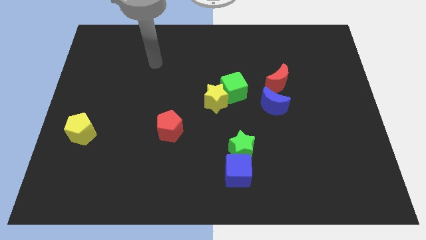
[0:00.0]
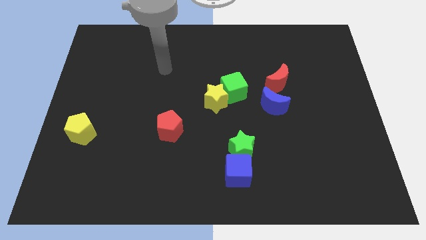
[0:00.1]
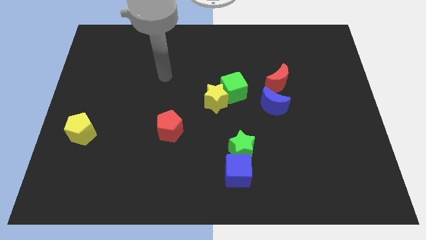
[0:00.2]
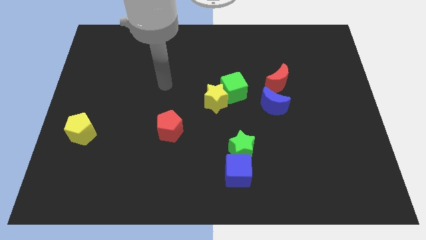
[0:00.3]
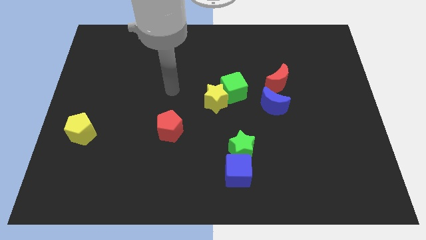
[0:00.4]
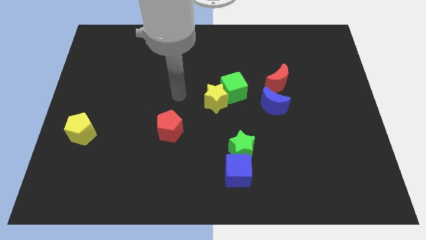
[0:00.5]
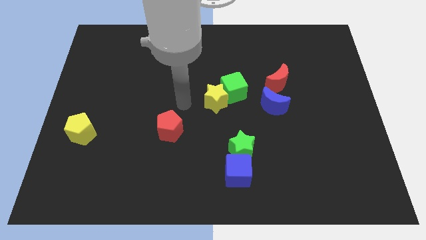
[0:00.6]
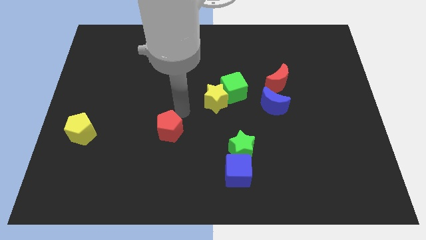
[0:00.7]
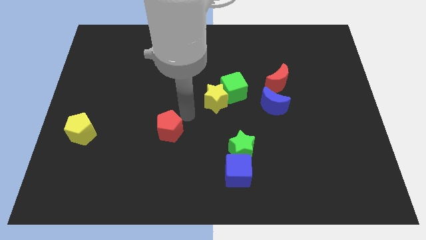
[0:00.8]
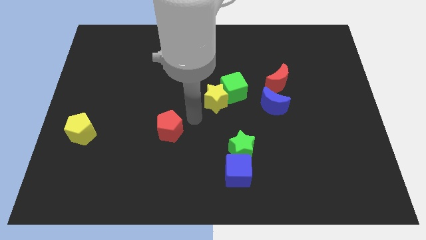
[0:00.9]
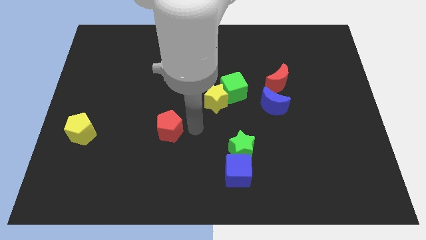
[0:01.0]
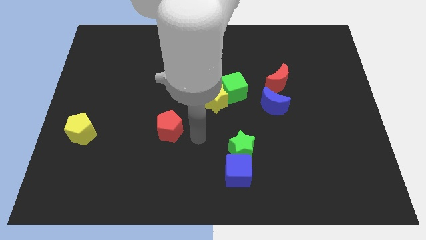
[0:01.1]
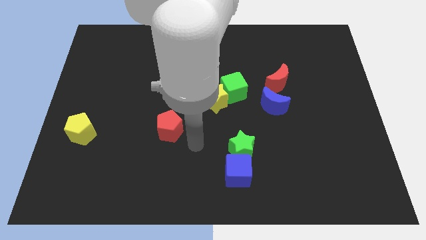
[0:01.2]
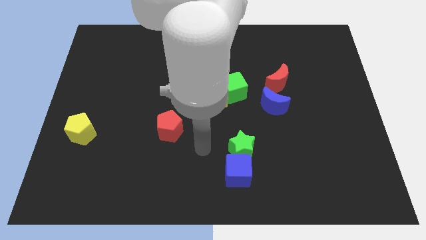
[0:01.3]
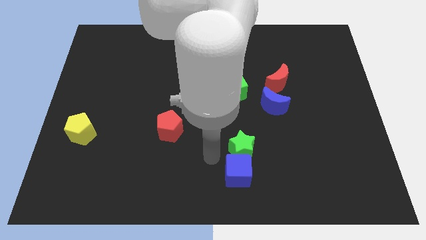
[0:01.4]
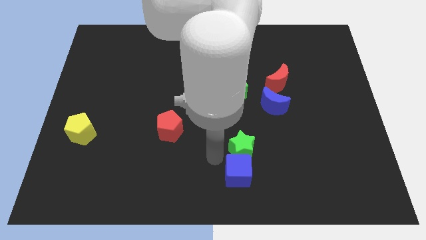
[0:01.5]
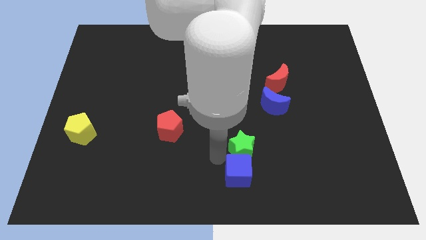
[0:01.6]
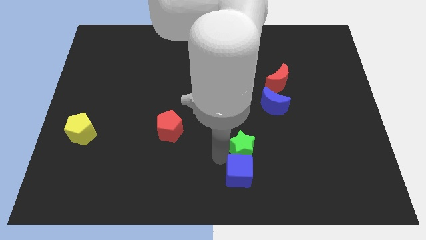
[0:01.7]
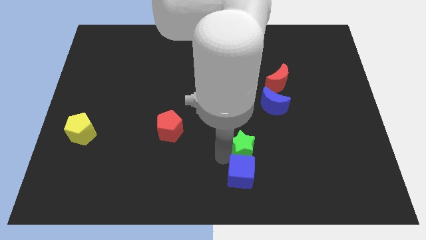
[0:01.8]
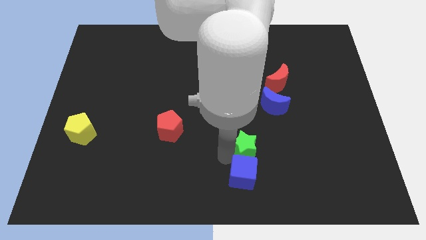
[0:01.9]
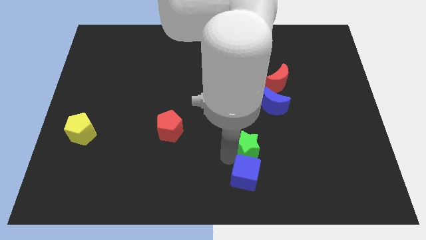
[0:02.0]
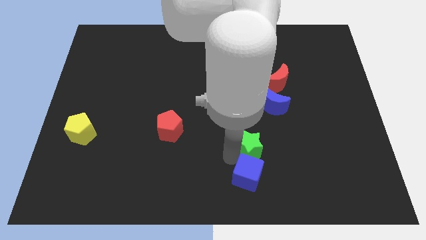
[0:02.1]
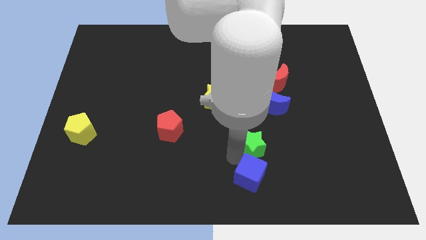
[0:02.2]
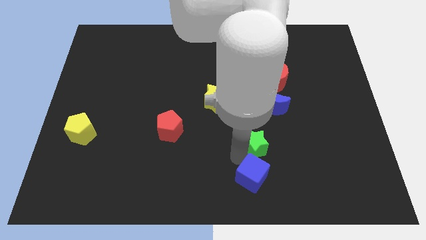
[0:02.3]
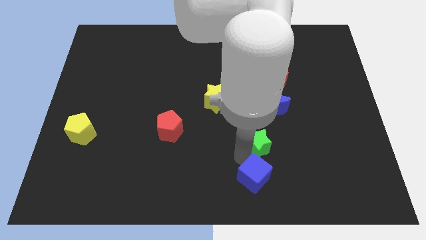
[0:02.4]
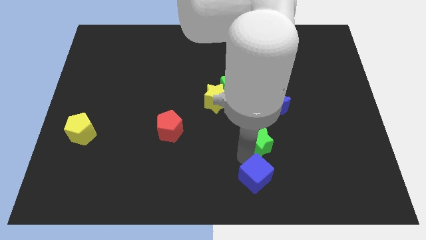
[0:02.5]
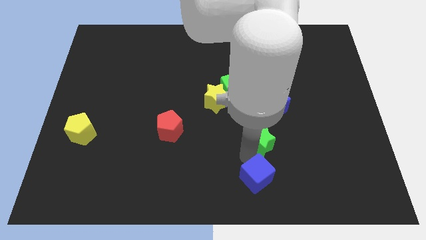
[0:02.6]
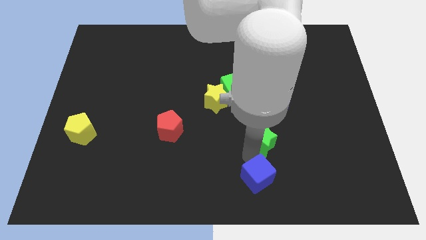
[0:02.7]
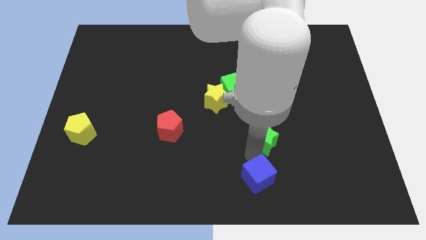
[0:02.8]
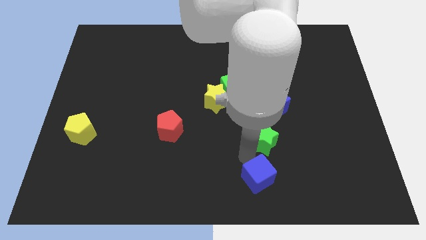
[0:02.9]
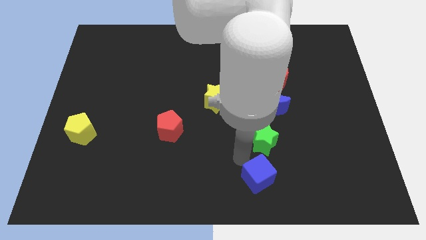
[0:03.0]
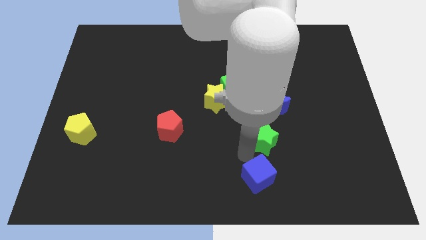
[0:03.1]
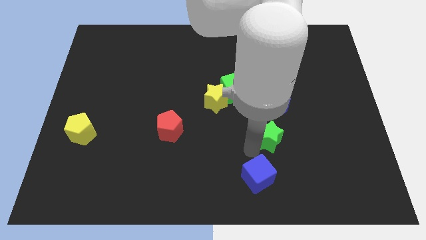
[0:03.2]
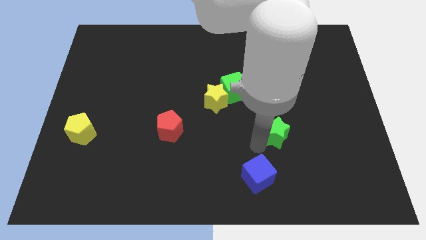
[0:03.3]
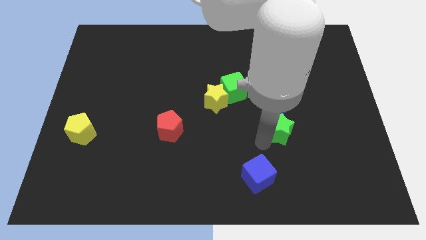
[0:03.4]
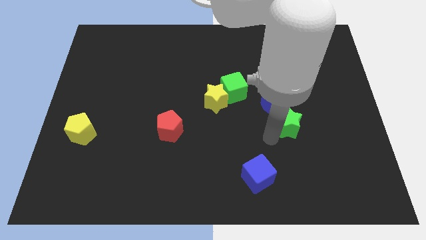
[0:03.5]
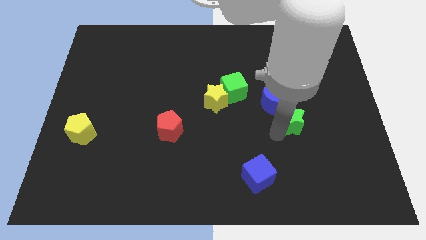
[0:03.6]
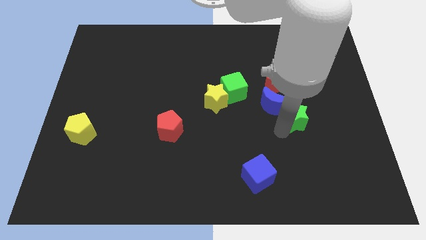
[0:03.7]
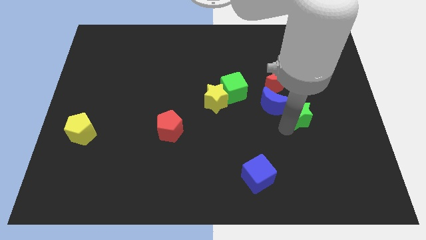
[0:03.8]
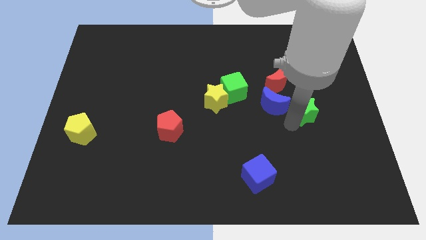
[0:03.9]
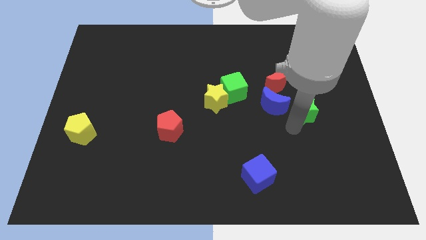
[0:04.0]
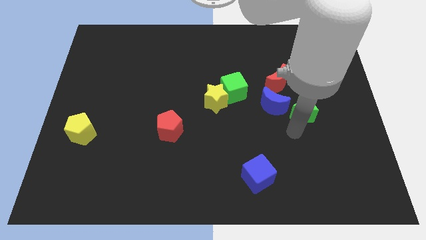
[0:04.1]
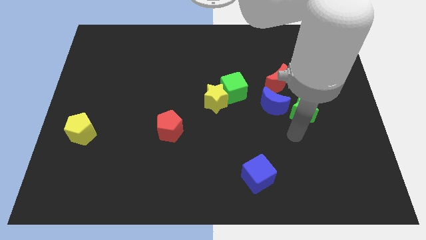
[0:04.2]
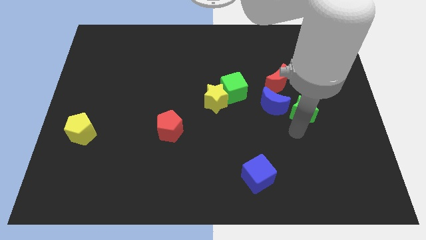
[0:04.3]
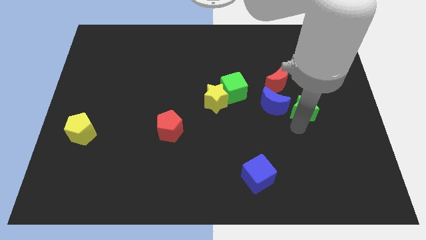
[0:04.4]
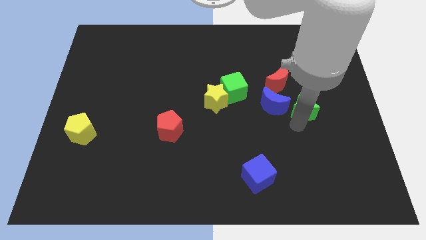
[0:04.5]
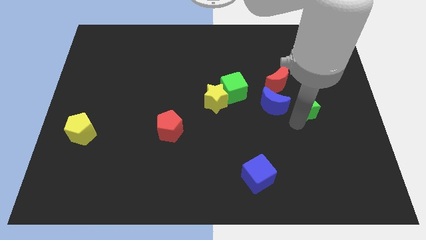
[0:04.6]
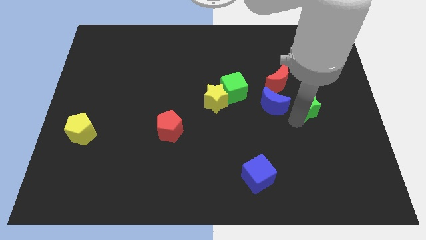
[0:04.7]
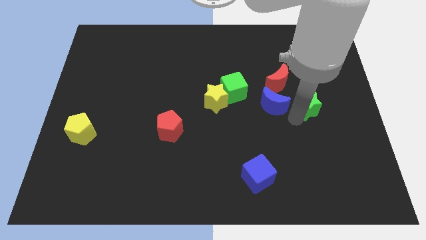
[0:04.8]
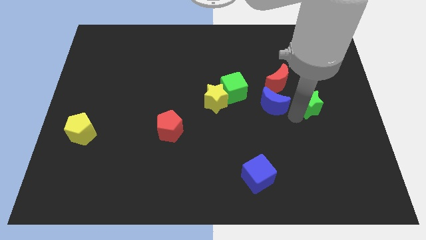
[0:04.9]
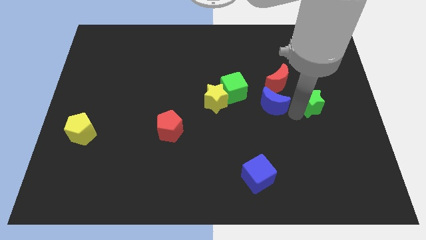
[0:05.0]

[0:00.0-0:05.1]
push the green star up and right

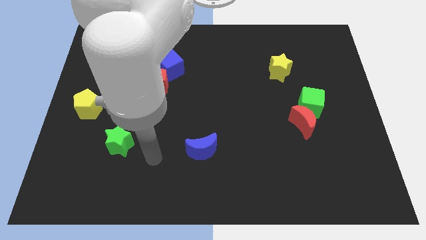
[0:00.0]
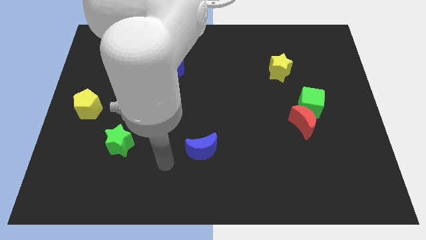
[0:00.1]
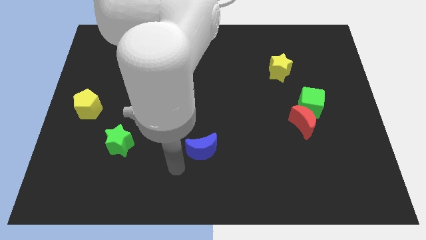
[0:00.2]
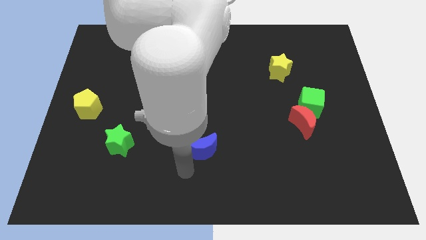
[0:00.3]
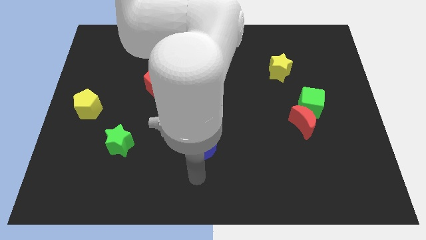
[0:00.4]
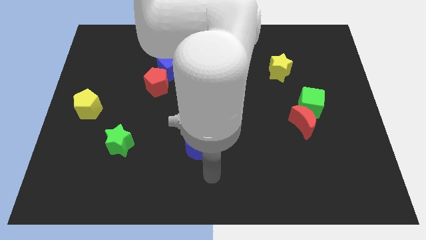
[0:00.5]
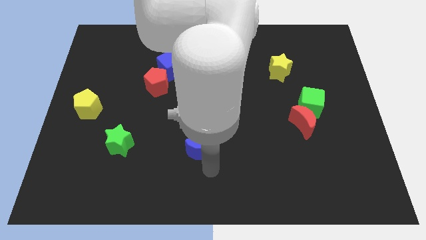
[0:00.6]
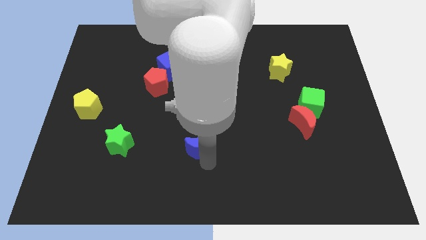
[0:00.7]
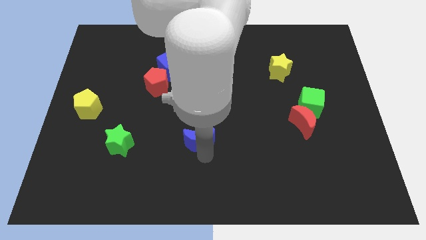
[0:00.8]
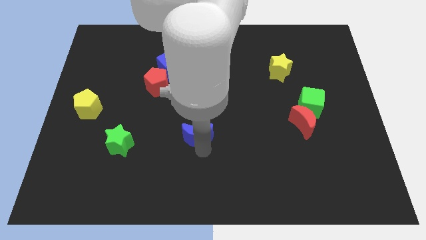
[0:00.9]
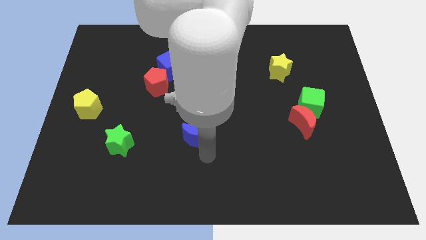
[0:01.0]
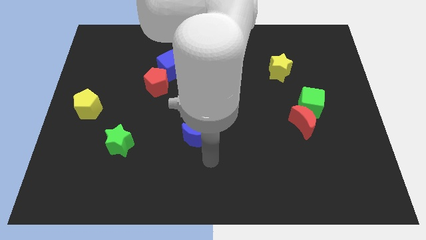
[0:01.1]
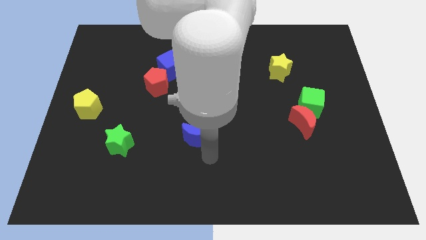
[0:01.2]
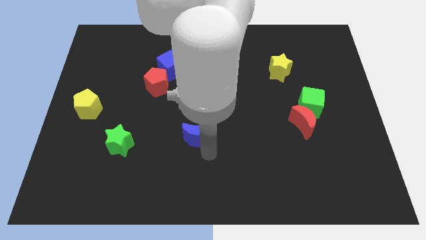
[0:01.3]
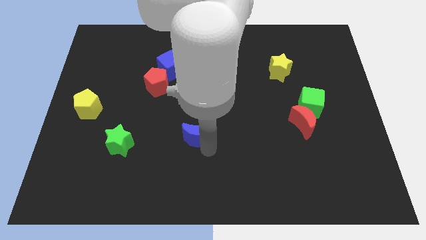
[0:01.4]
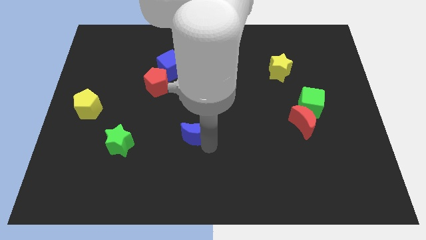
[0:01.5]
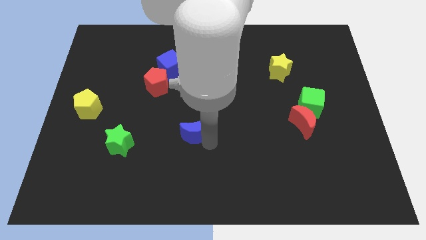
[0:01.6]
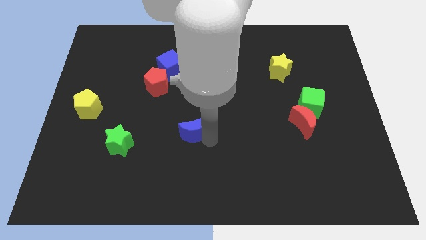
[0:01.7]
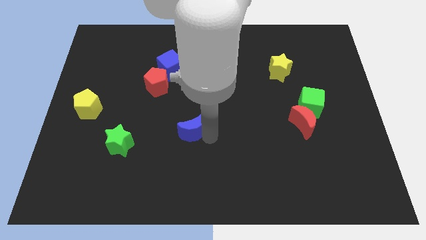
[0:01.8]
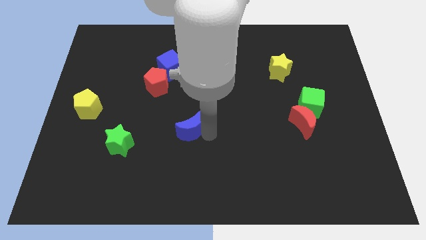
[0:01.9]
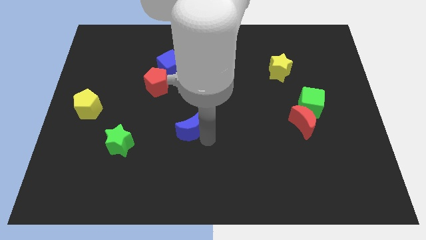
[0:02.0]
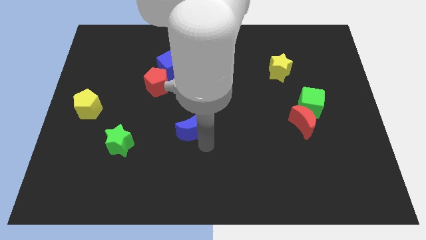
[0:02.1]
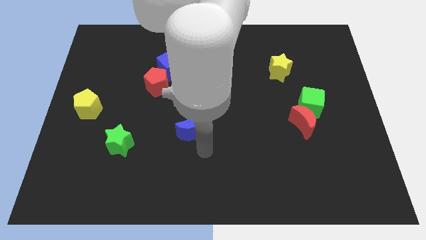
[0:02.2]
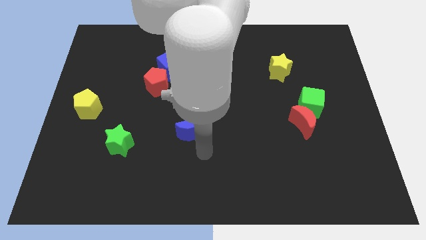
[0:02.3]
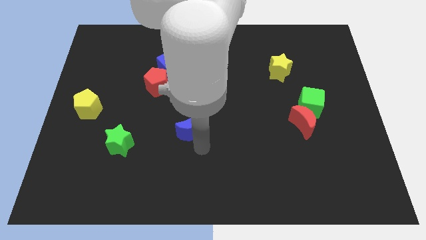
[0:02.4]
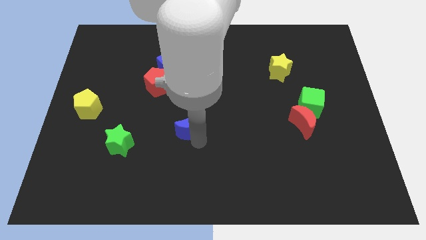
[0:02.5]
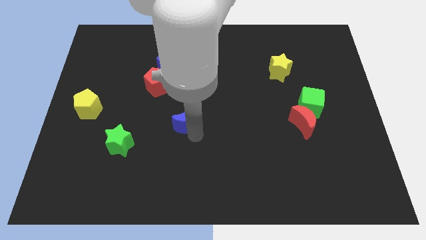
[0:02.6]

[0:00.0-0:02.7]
push the blue moon upwards and to the left a little
